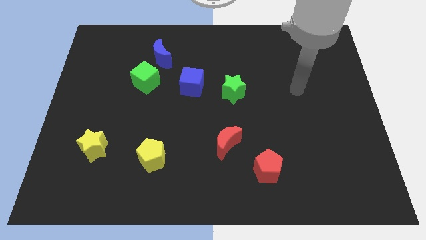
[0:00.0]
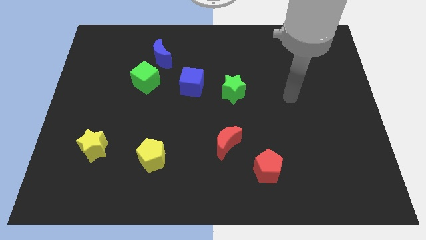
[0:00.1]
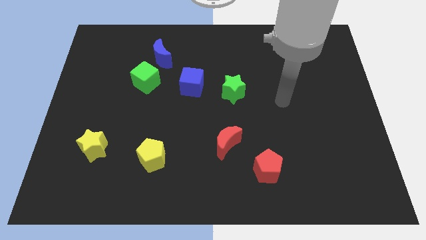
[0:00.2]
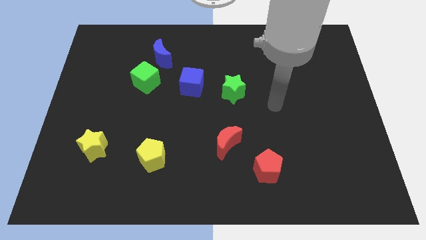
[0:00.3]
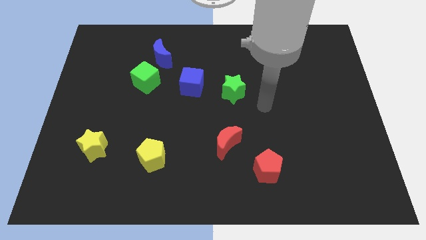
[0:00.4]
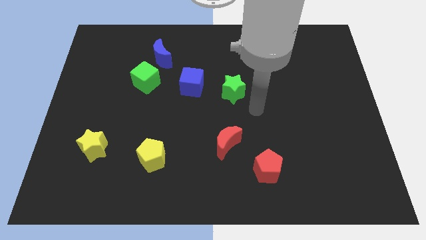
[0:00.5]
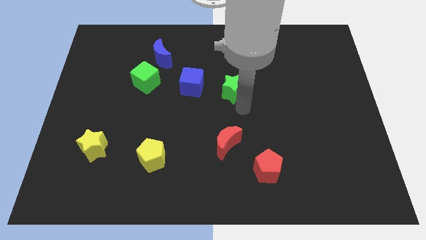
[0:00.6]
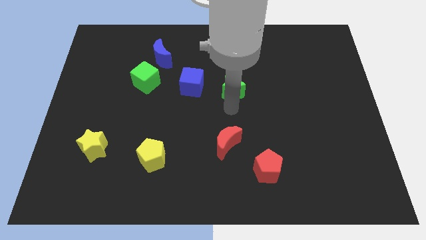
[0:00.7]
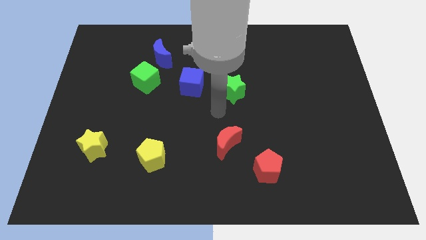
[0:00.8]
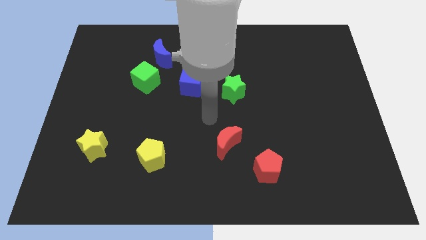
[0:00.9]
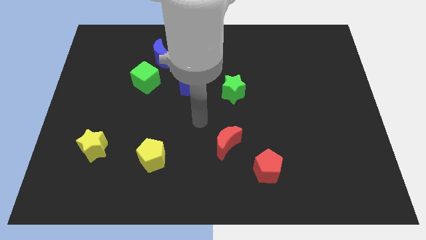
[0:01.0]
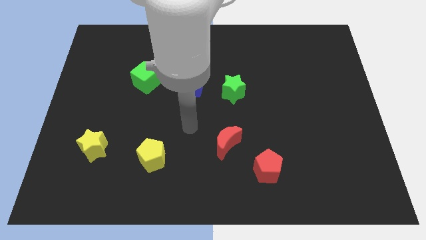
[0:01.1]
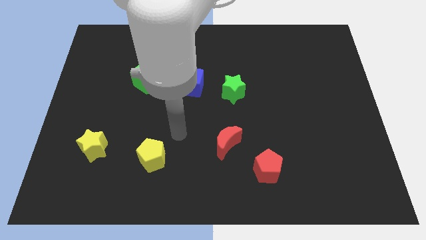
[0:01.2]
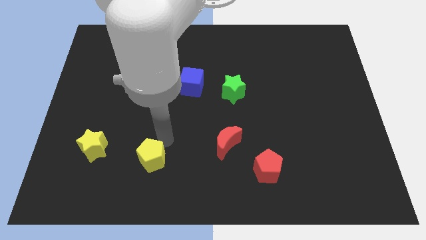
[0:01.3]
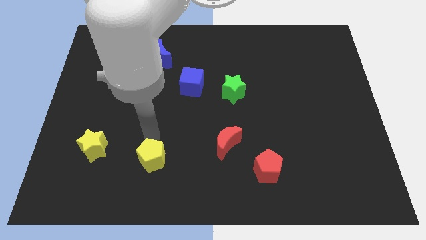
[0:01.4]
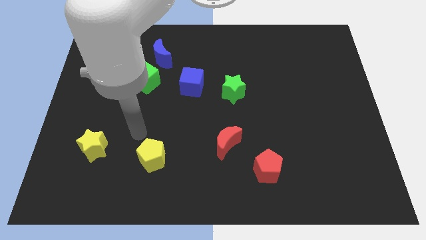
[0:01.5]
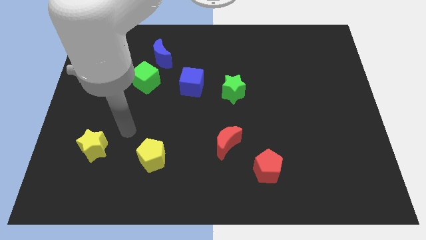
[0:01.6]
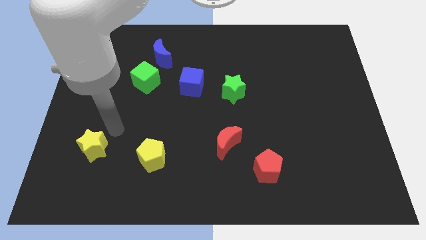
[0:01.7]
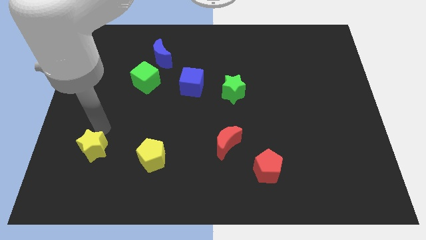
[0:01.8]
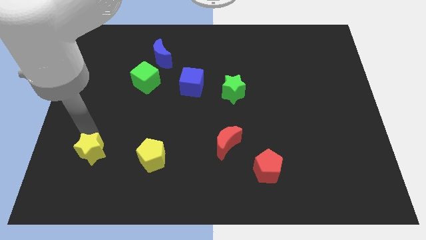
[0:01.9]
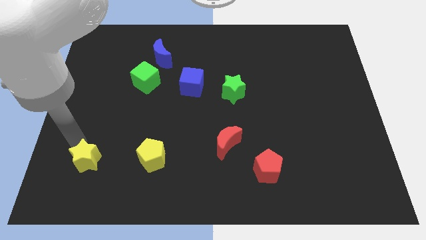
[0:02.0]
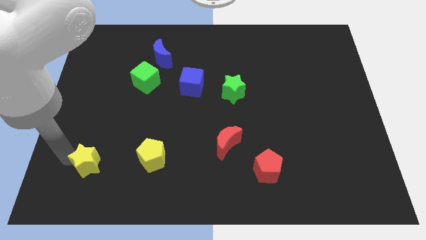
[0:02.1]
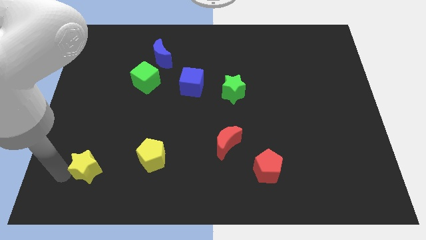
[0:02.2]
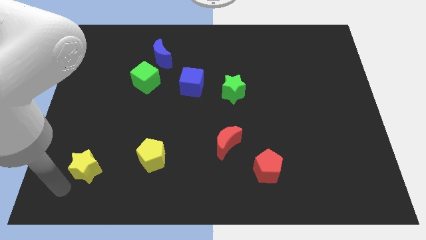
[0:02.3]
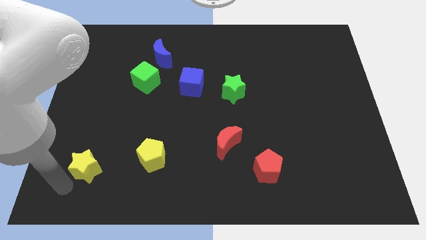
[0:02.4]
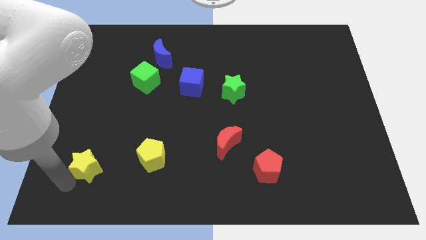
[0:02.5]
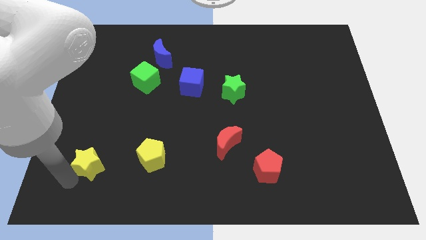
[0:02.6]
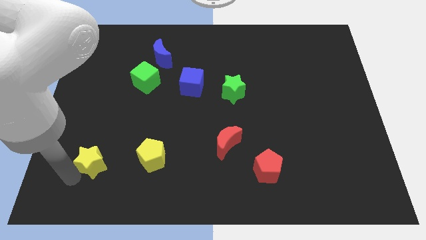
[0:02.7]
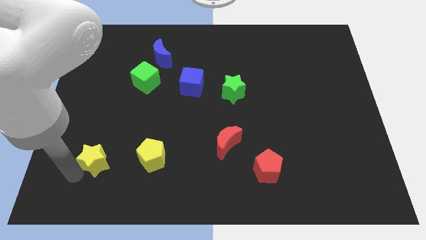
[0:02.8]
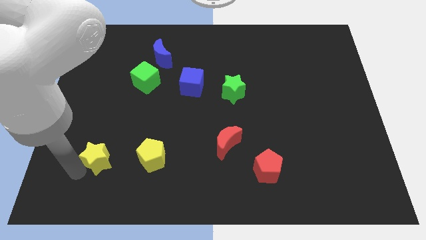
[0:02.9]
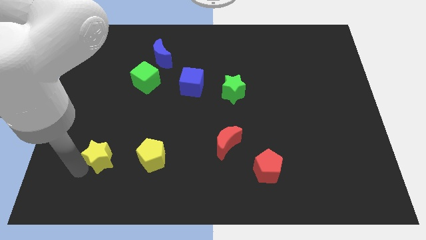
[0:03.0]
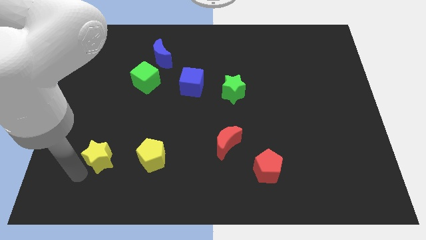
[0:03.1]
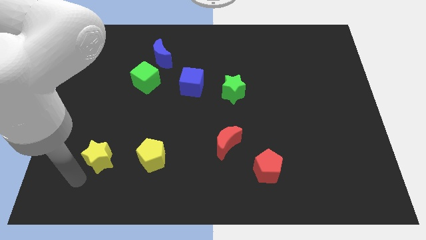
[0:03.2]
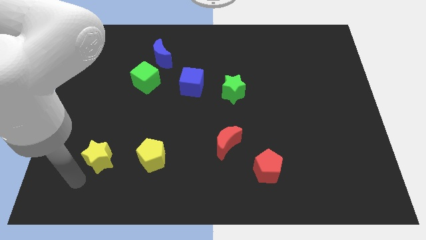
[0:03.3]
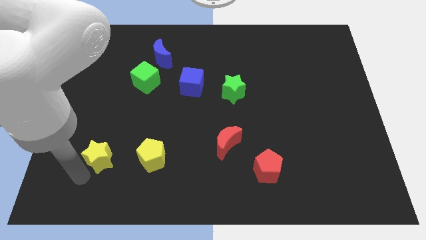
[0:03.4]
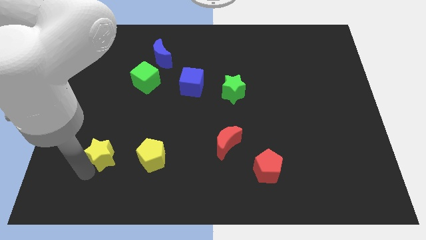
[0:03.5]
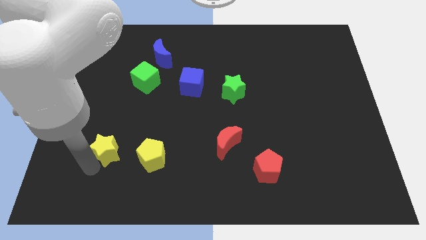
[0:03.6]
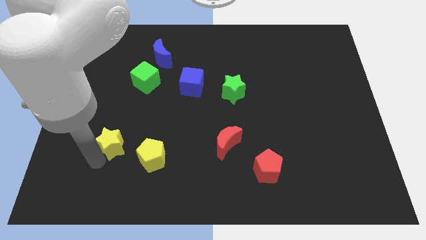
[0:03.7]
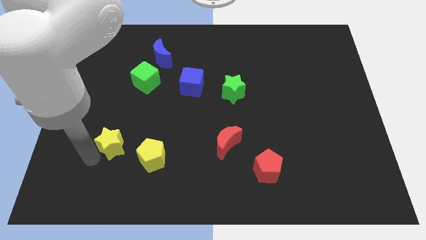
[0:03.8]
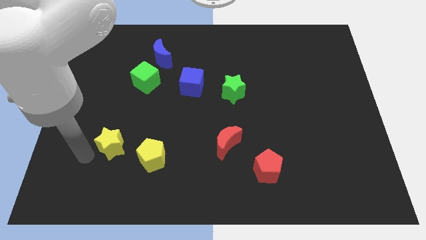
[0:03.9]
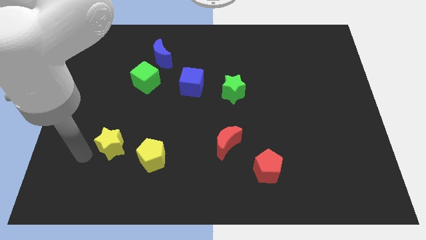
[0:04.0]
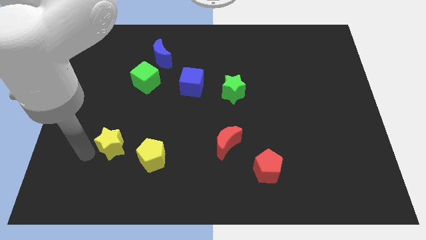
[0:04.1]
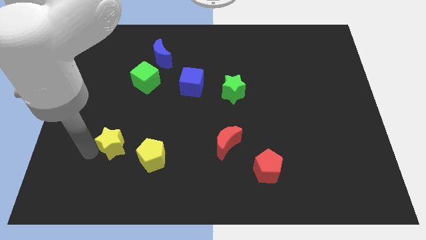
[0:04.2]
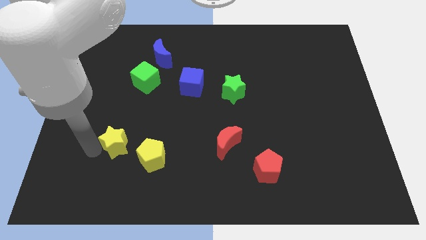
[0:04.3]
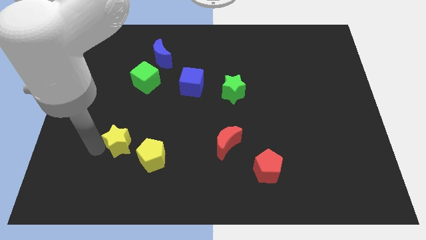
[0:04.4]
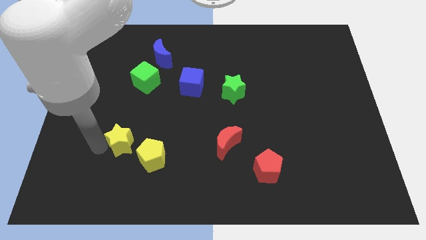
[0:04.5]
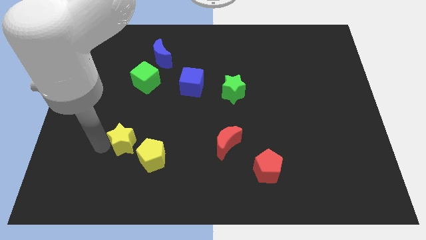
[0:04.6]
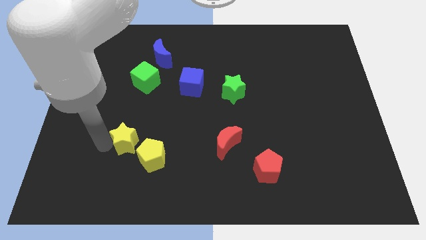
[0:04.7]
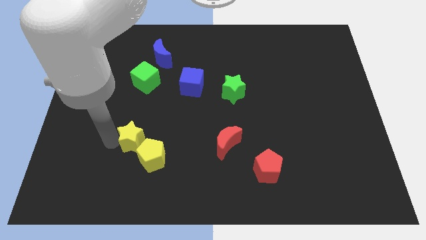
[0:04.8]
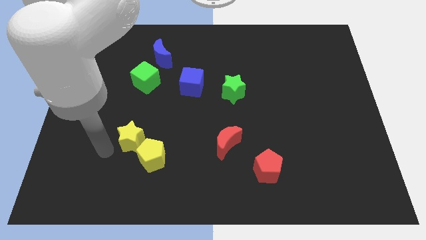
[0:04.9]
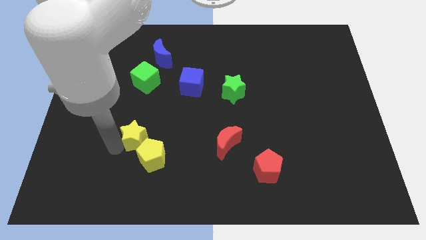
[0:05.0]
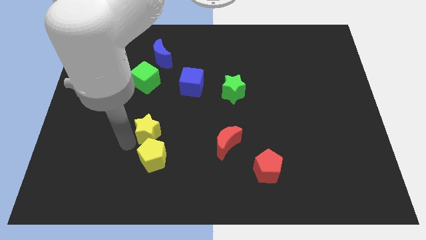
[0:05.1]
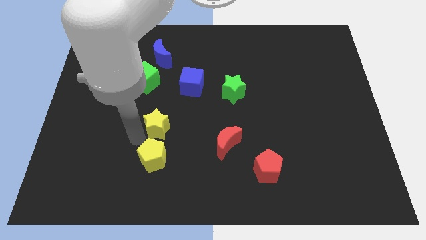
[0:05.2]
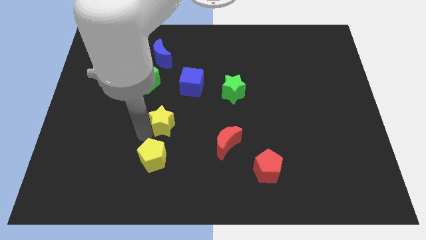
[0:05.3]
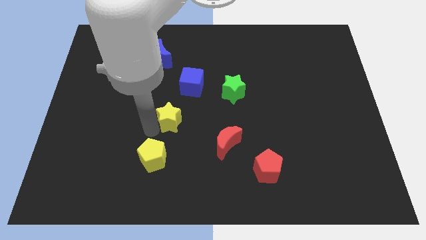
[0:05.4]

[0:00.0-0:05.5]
move the yellow star below the blue cube

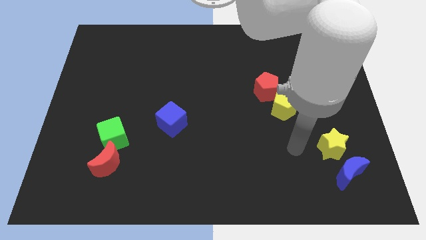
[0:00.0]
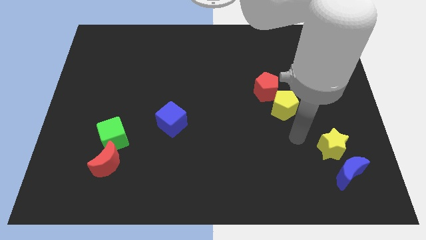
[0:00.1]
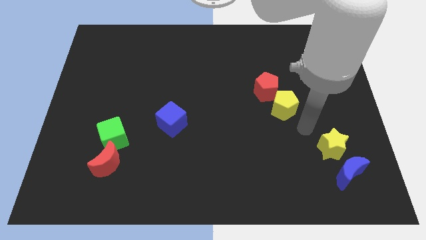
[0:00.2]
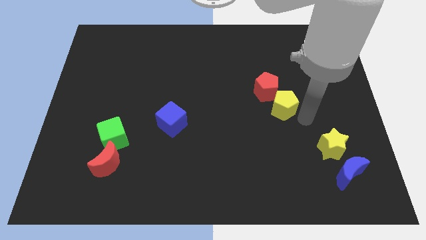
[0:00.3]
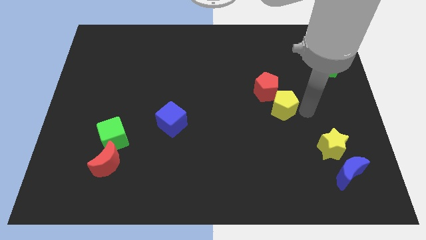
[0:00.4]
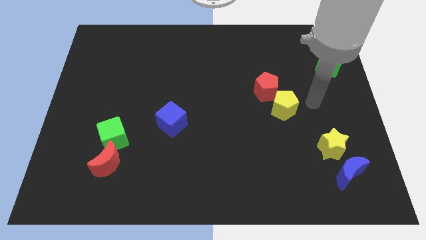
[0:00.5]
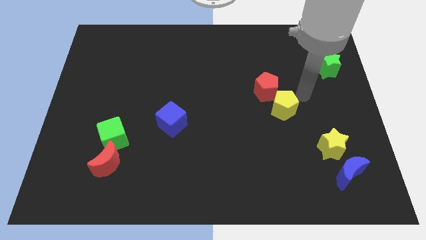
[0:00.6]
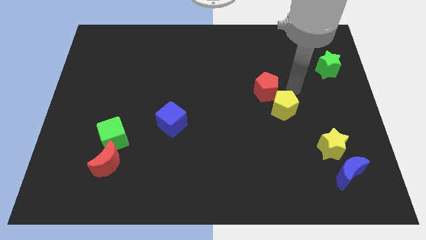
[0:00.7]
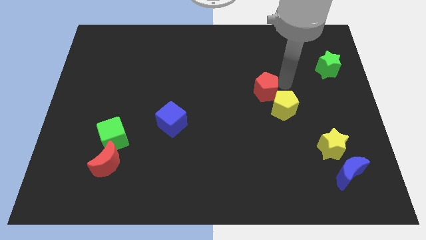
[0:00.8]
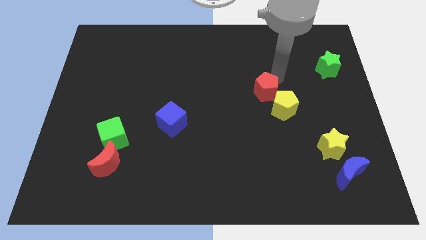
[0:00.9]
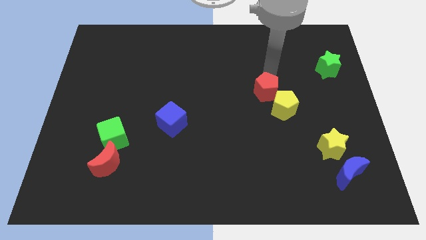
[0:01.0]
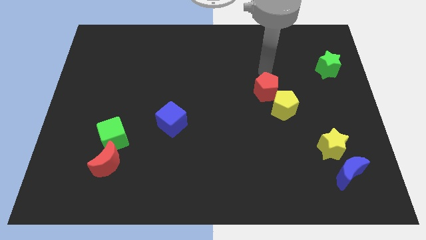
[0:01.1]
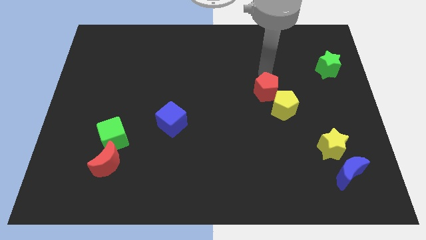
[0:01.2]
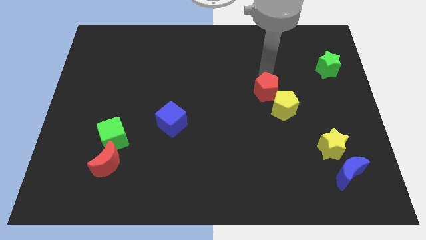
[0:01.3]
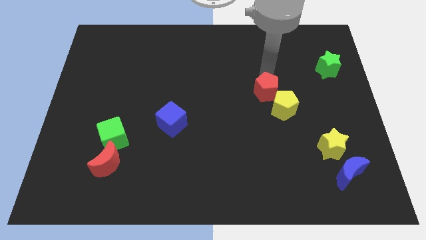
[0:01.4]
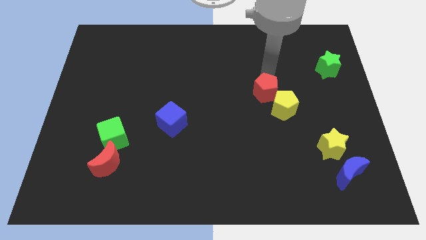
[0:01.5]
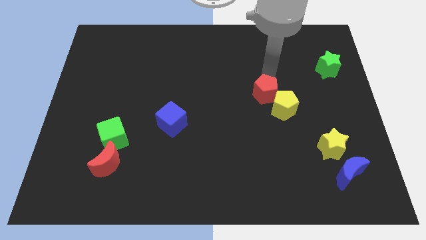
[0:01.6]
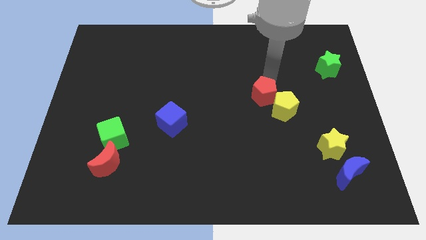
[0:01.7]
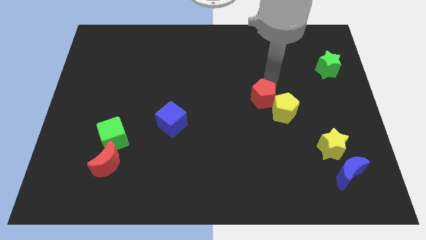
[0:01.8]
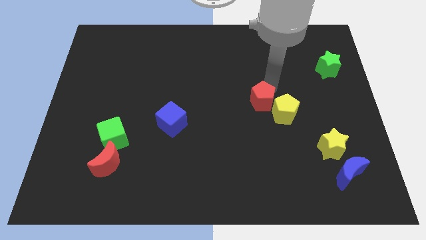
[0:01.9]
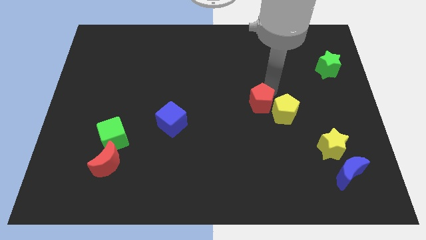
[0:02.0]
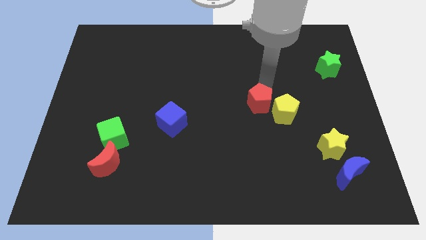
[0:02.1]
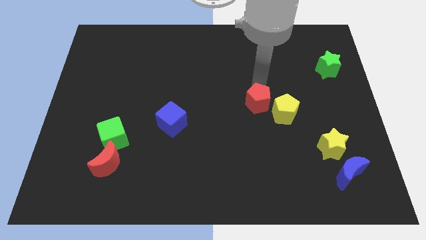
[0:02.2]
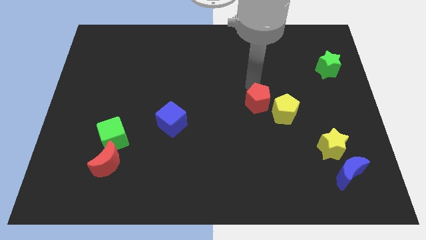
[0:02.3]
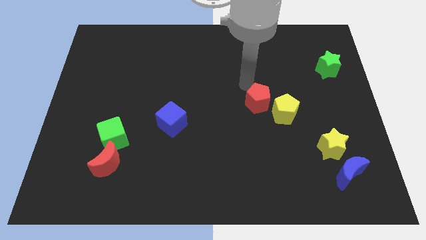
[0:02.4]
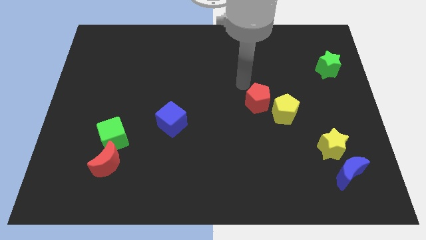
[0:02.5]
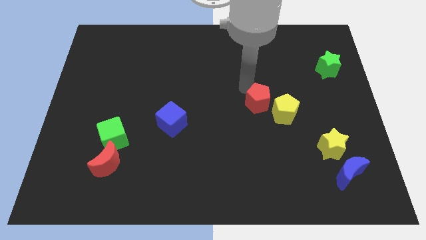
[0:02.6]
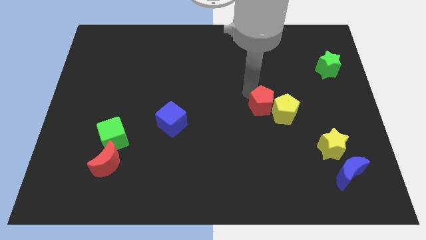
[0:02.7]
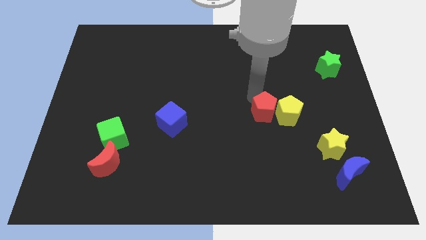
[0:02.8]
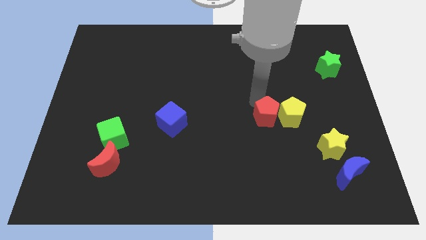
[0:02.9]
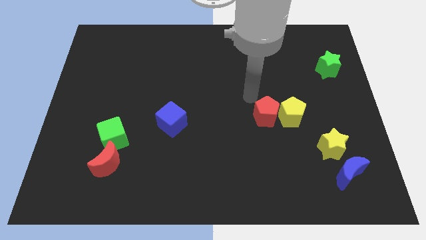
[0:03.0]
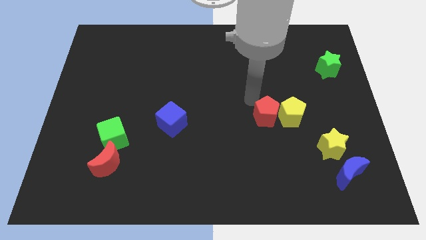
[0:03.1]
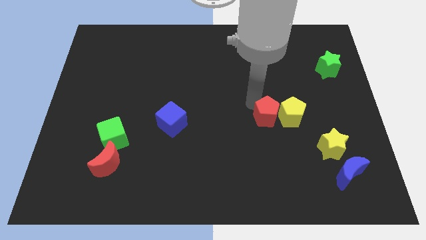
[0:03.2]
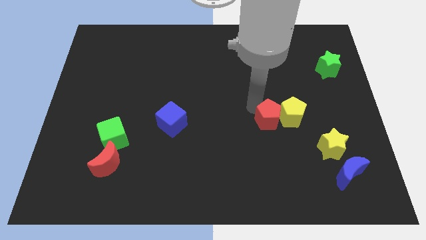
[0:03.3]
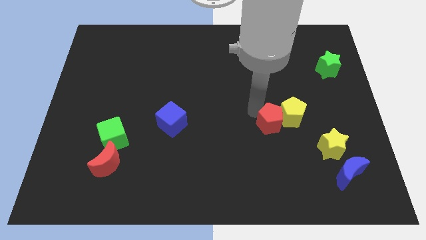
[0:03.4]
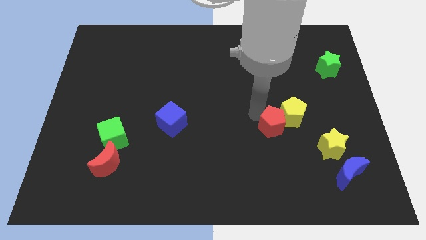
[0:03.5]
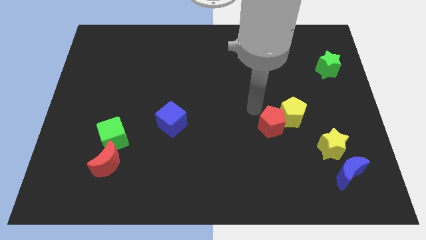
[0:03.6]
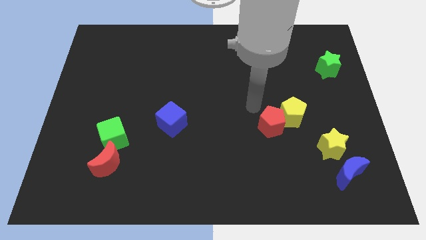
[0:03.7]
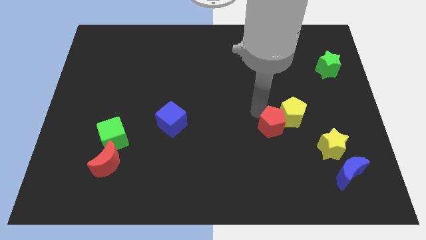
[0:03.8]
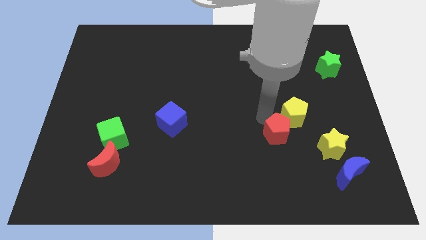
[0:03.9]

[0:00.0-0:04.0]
push the red pentagon to the bottom side of the yellow pentagon
